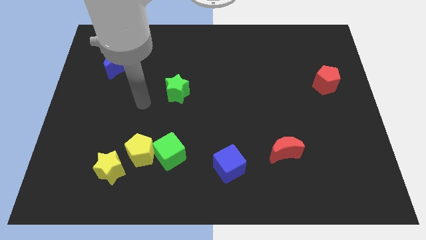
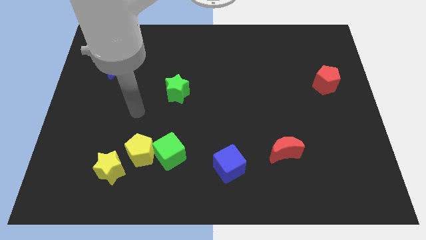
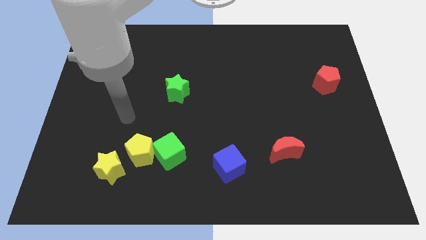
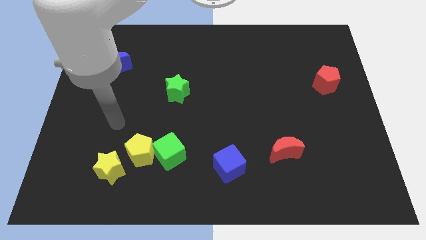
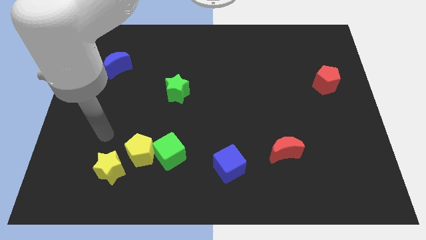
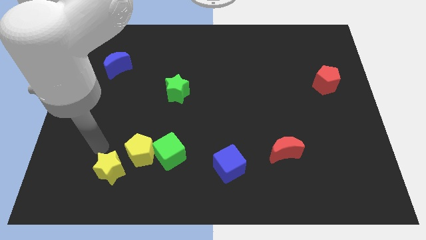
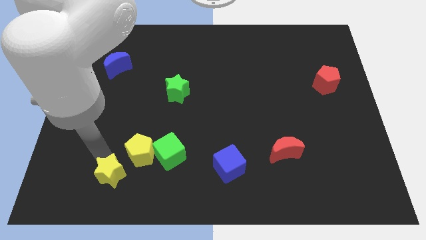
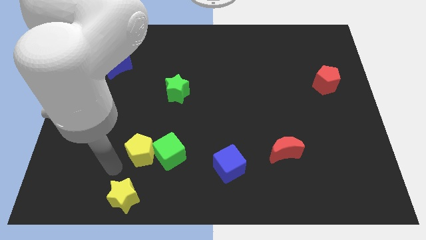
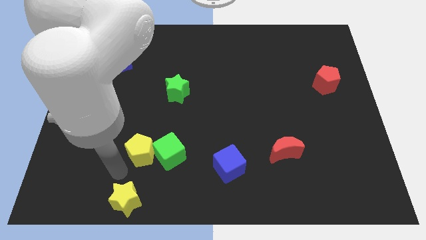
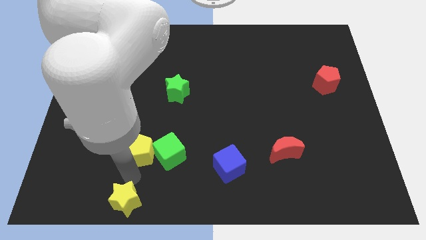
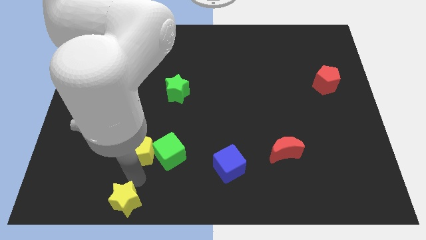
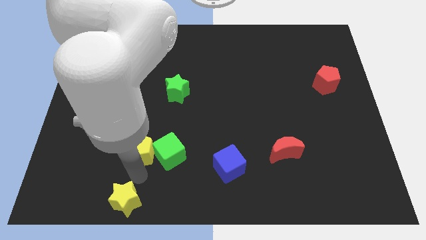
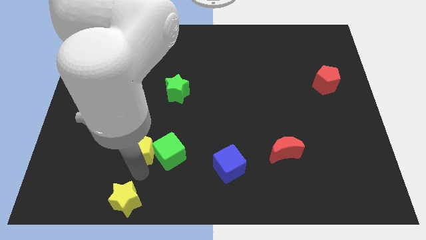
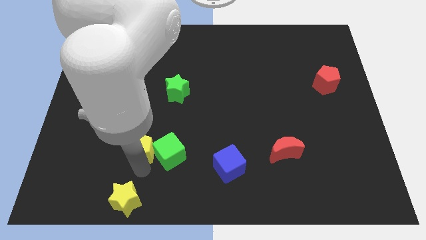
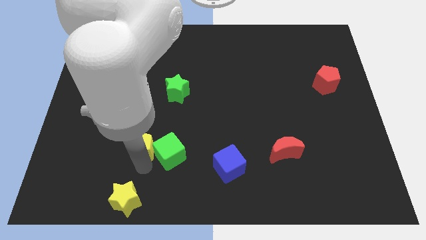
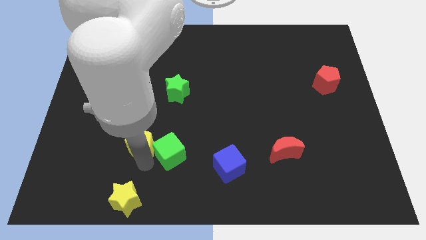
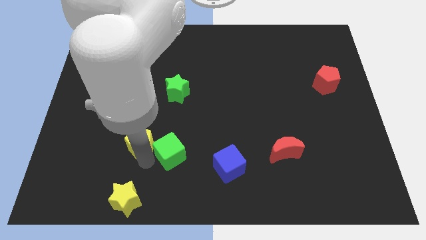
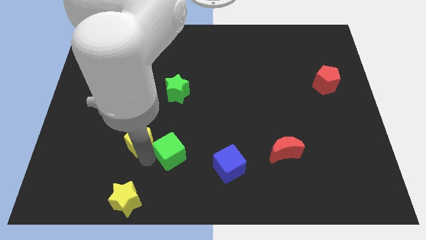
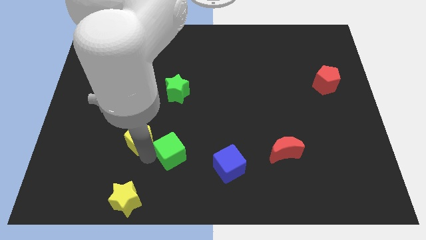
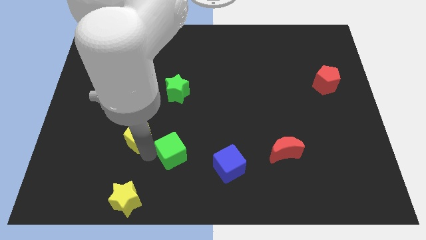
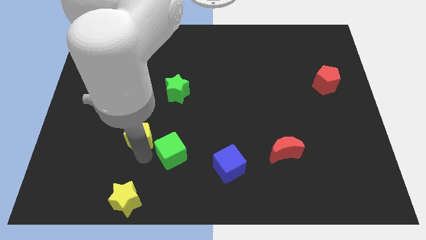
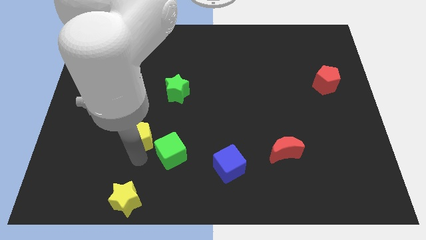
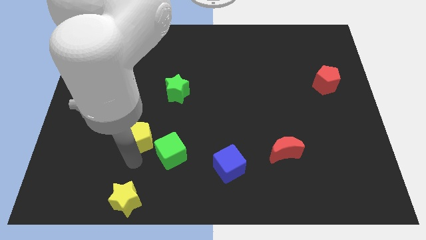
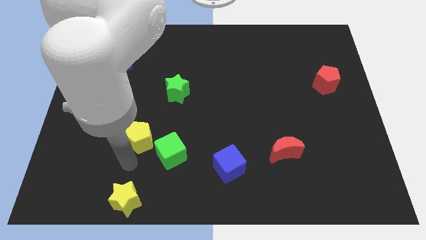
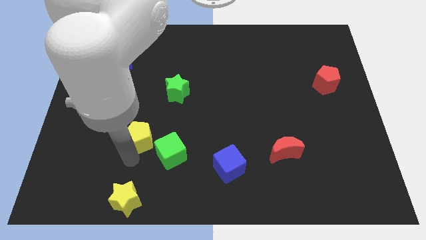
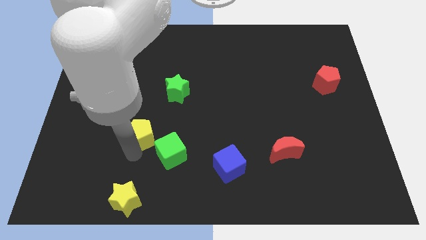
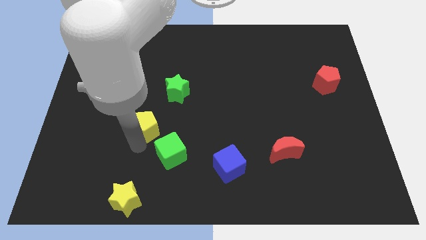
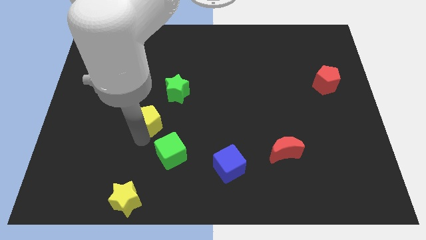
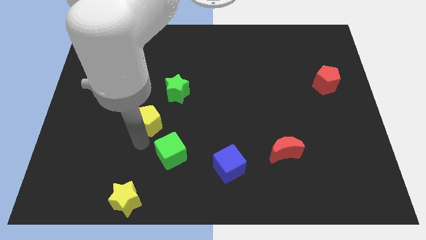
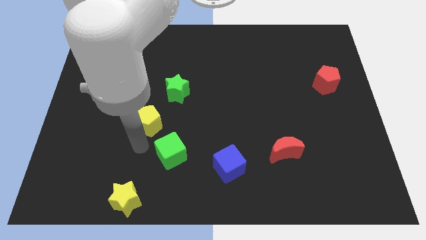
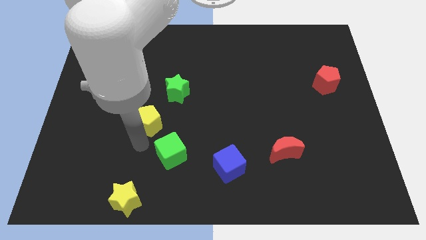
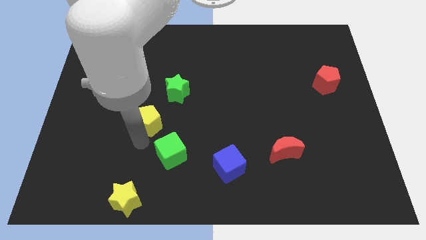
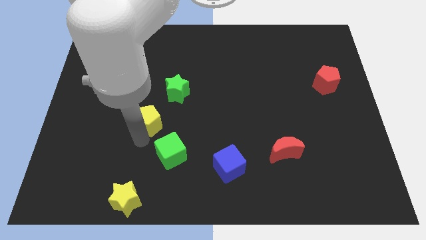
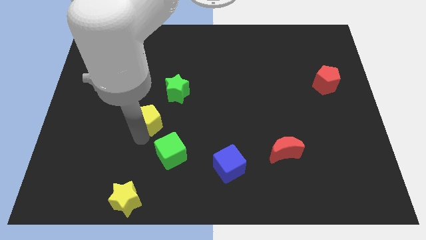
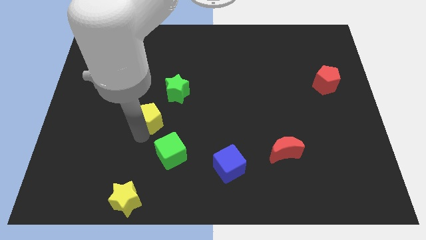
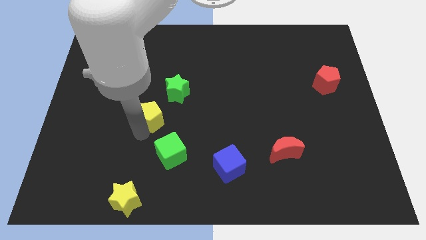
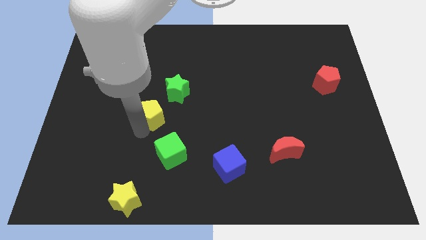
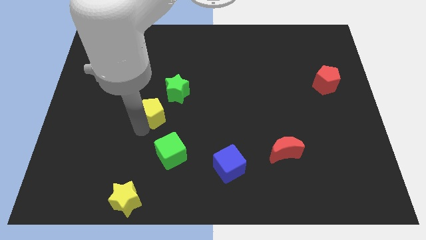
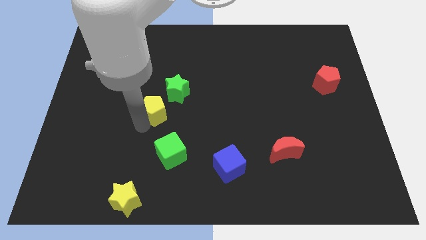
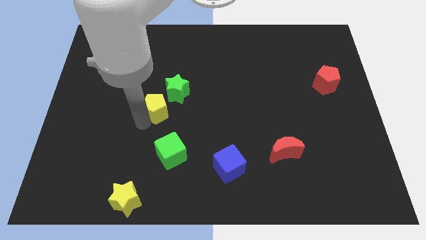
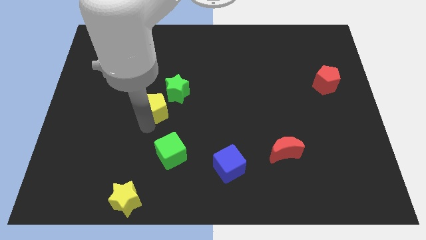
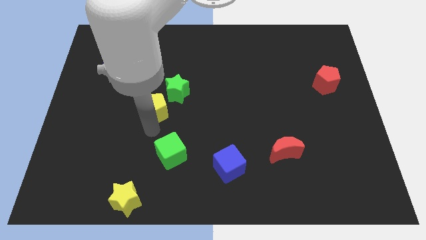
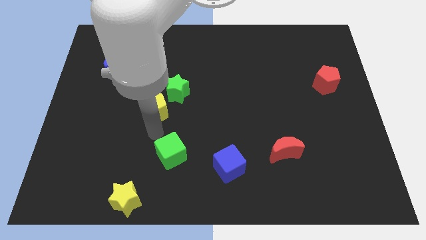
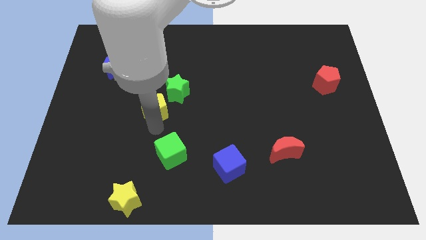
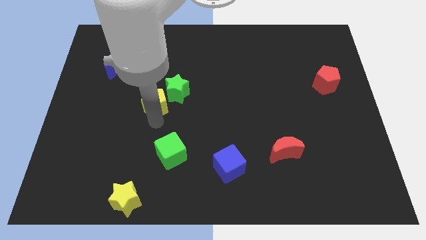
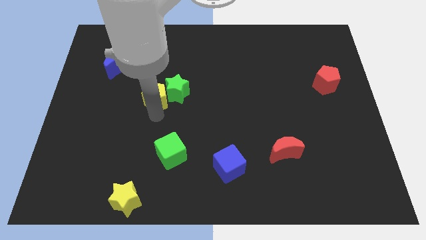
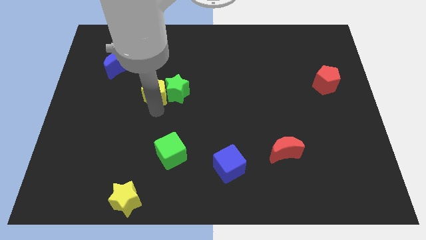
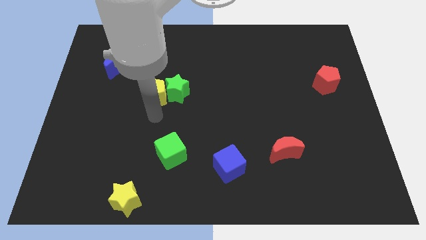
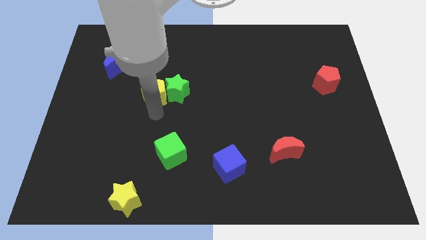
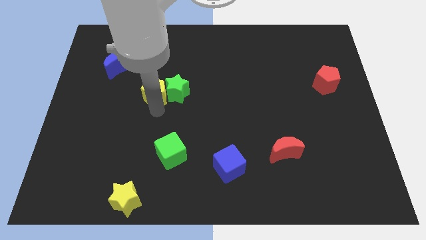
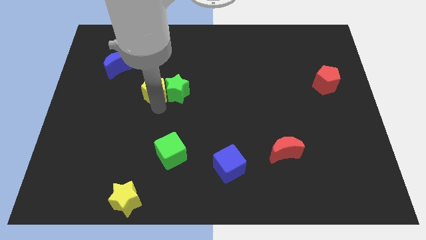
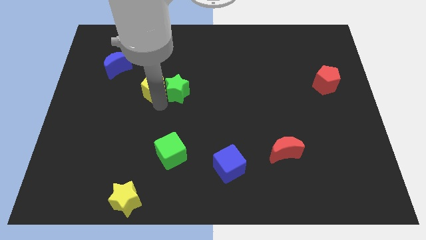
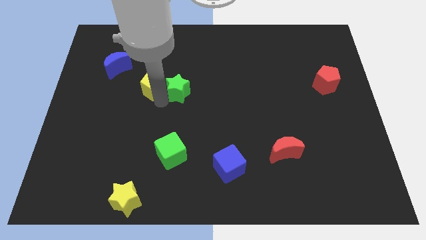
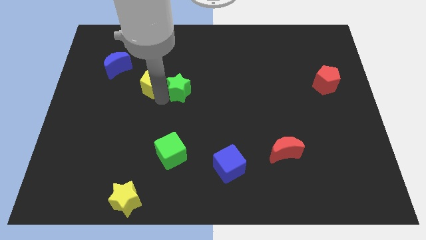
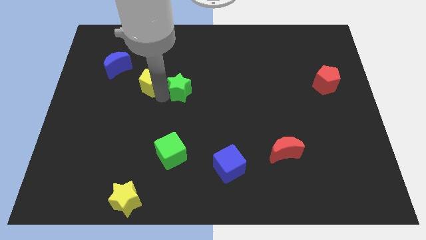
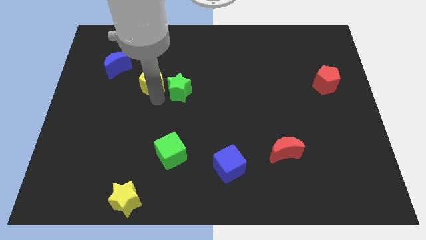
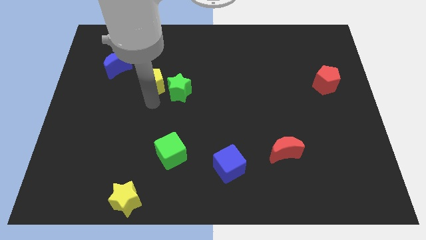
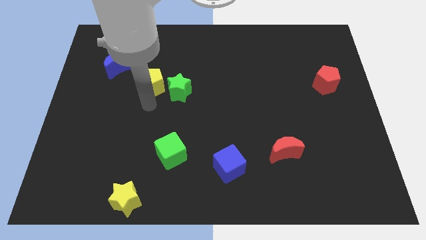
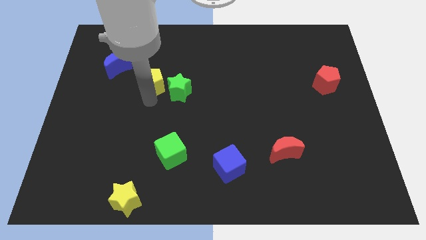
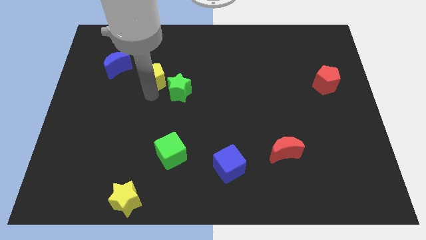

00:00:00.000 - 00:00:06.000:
move the yellow pentagon to the right side of the blue moon

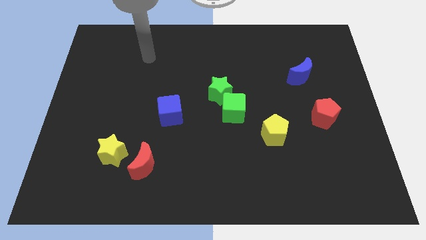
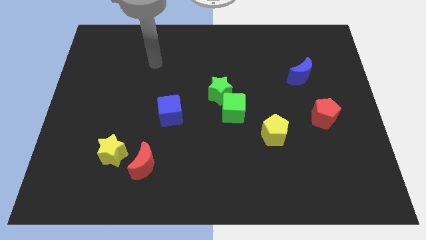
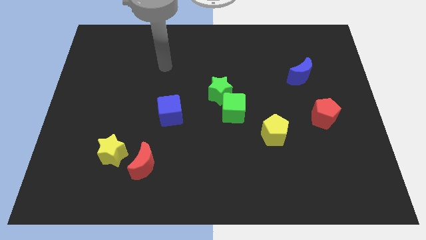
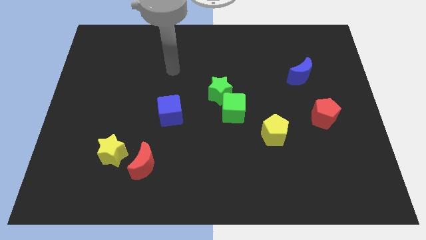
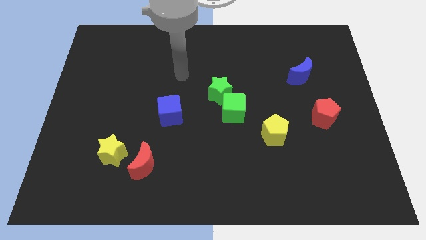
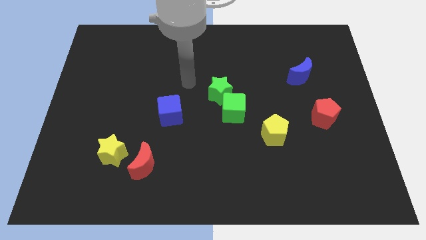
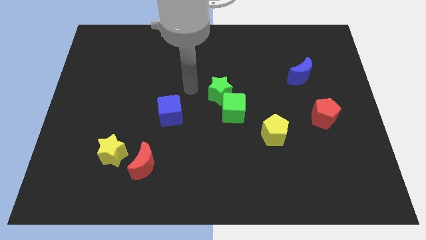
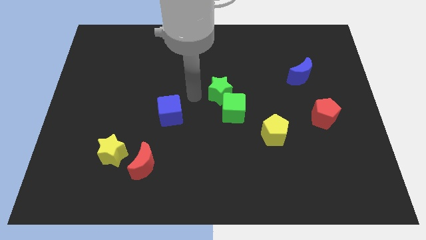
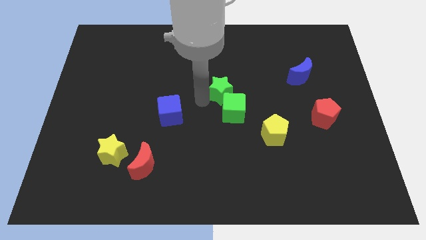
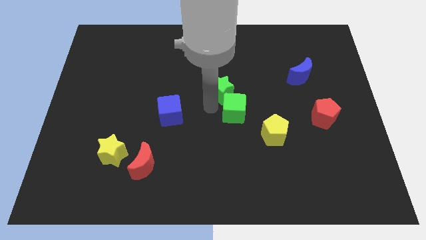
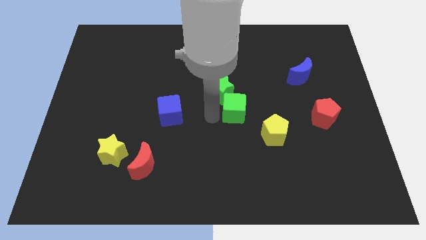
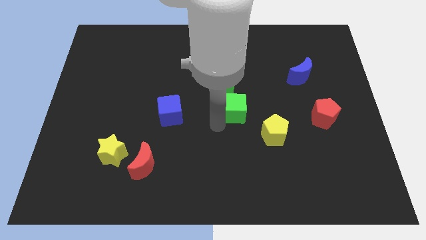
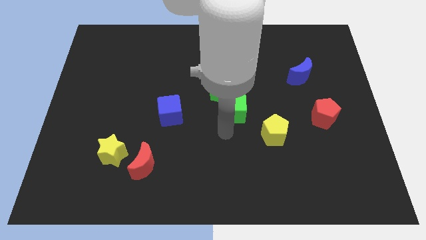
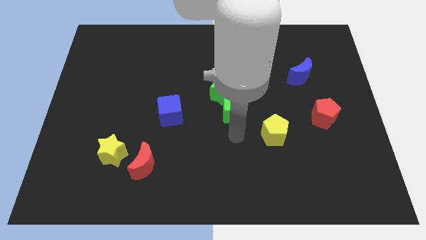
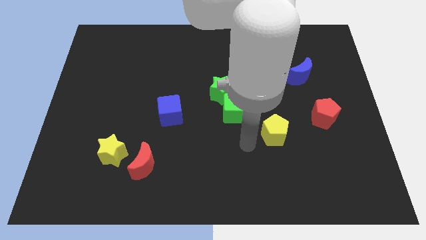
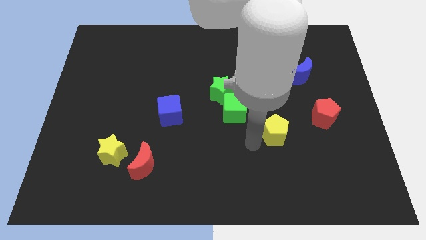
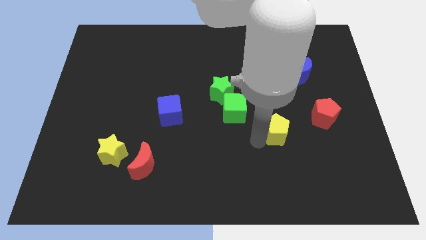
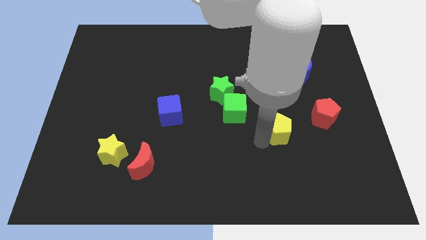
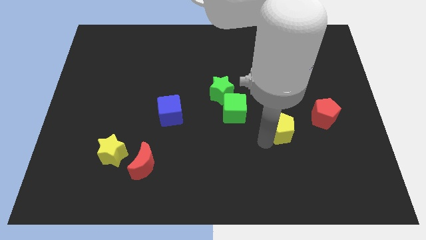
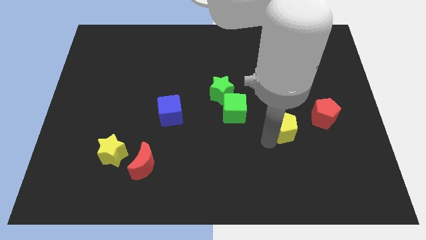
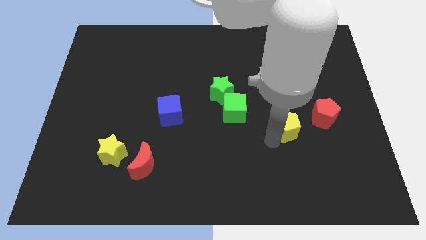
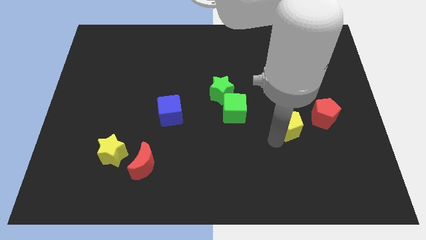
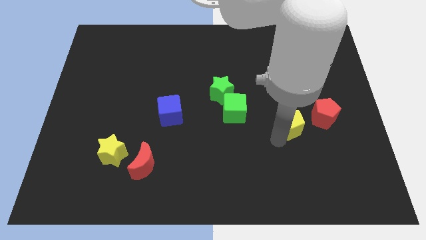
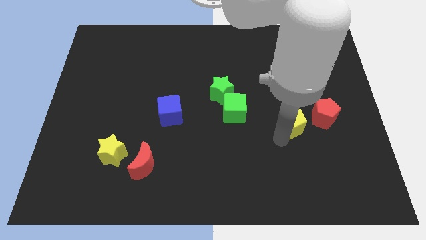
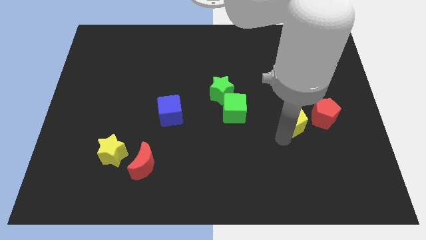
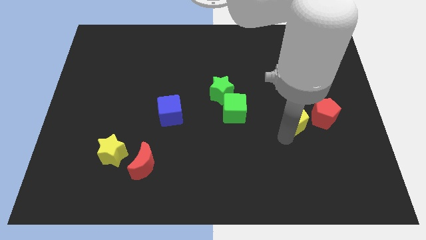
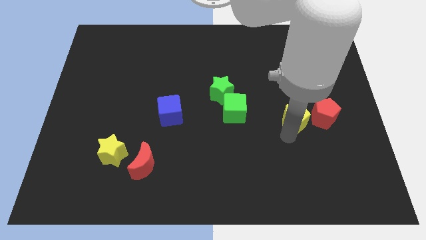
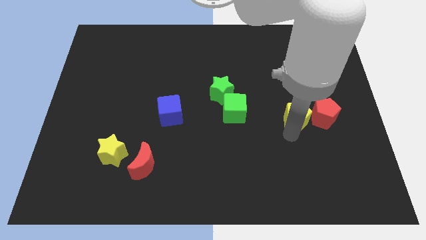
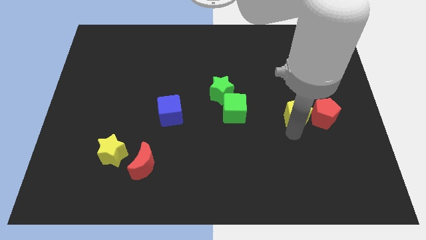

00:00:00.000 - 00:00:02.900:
put the yellow pentagon to the top left of the red pentagon
